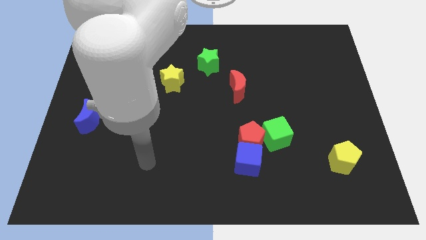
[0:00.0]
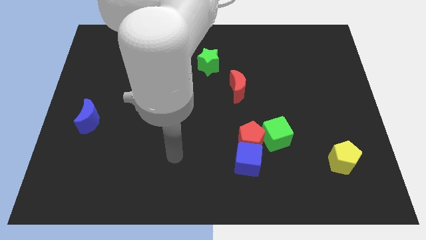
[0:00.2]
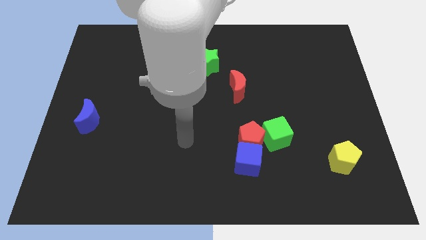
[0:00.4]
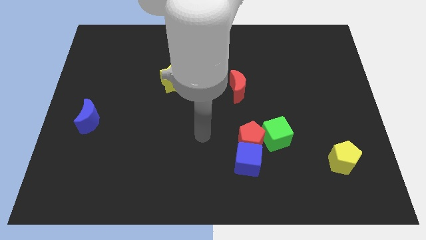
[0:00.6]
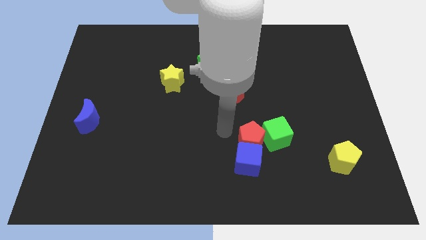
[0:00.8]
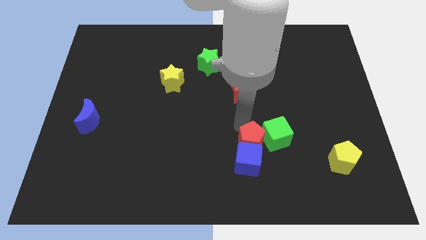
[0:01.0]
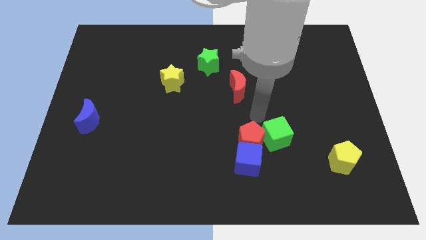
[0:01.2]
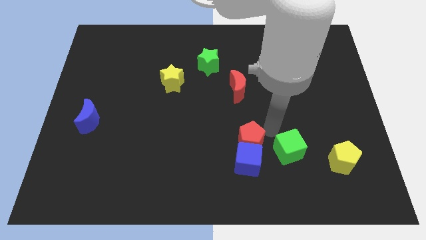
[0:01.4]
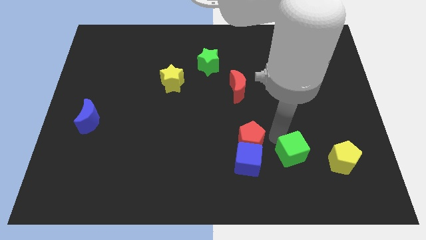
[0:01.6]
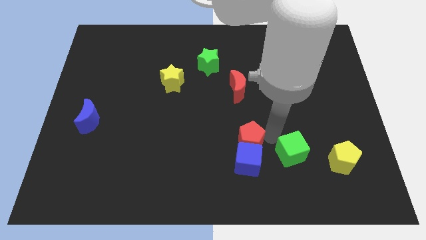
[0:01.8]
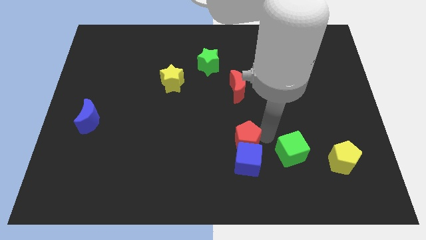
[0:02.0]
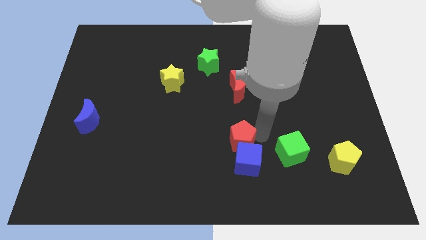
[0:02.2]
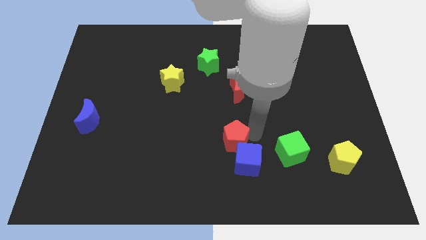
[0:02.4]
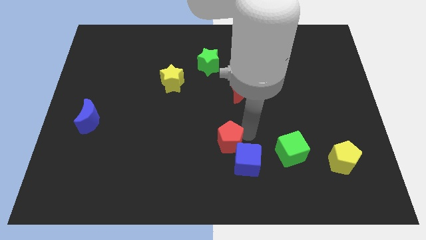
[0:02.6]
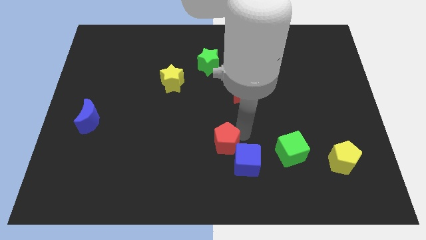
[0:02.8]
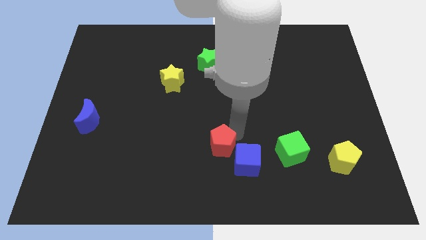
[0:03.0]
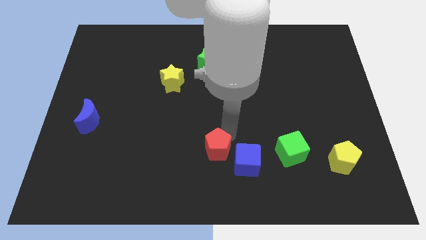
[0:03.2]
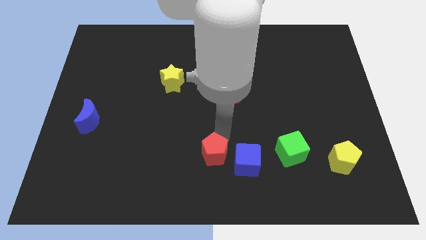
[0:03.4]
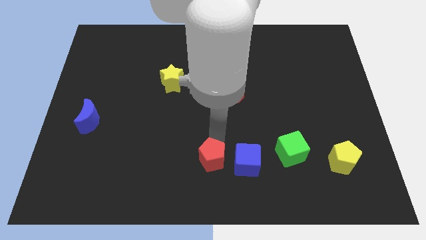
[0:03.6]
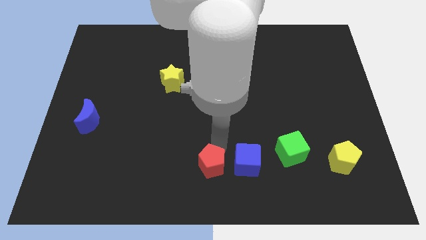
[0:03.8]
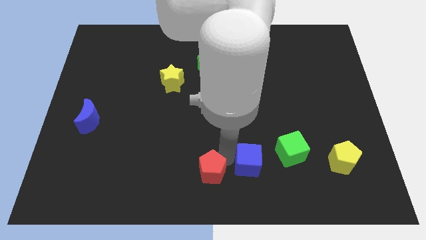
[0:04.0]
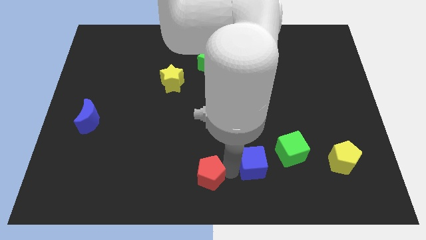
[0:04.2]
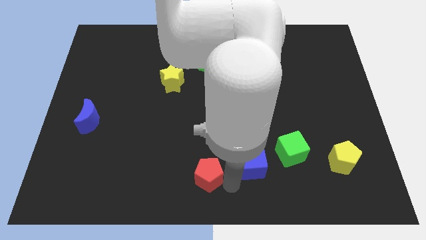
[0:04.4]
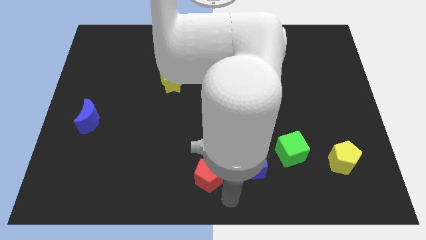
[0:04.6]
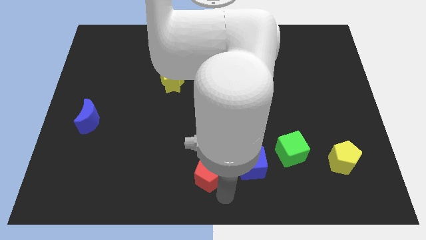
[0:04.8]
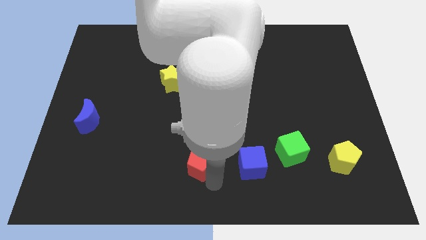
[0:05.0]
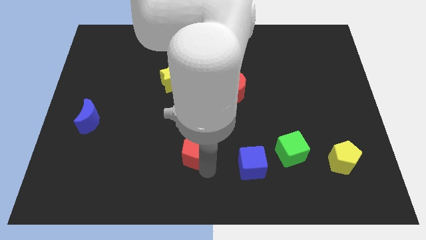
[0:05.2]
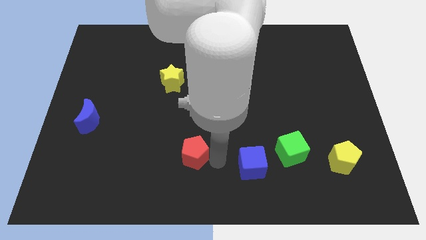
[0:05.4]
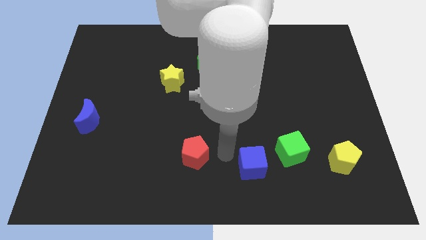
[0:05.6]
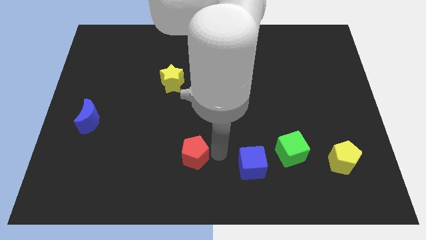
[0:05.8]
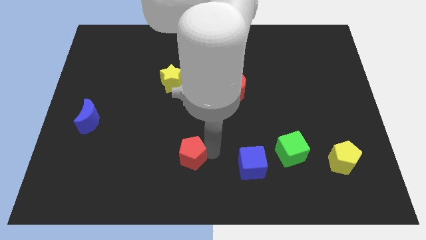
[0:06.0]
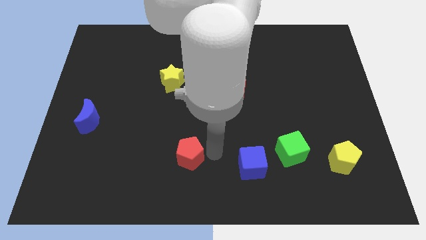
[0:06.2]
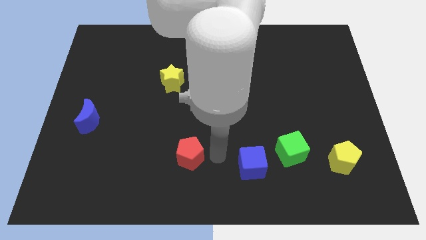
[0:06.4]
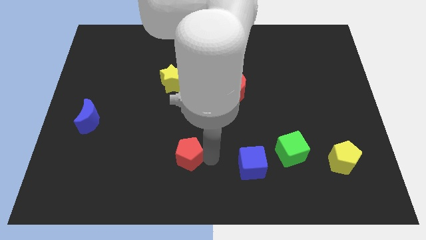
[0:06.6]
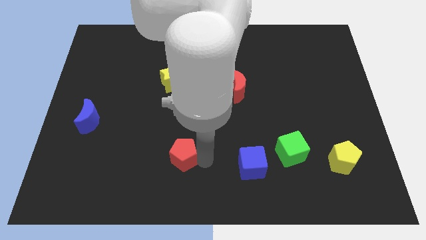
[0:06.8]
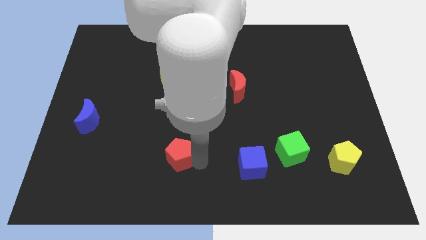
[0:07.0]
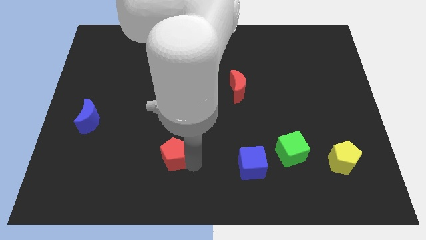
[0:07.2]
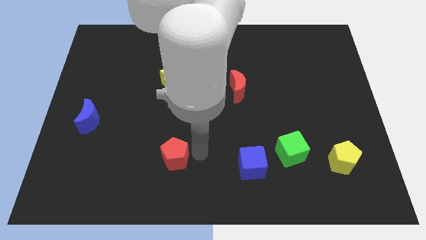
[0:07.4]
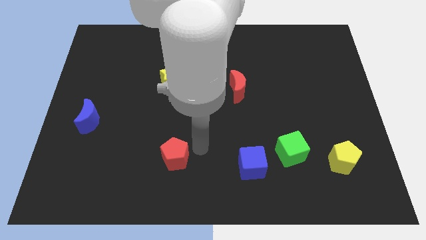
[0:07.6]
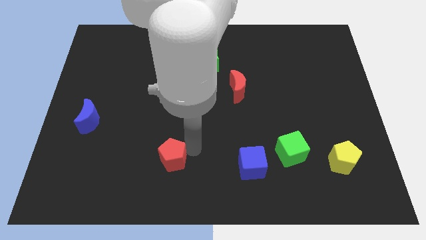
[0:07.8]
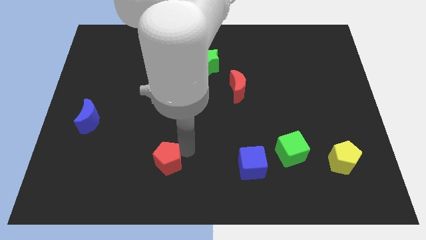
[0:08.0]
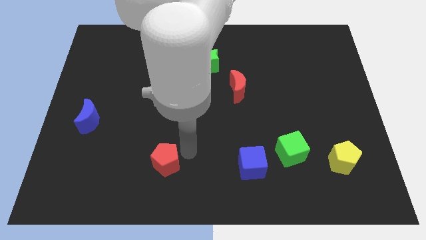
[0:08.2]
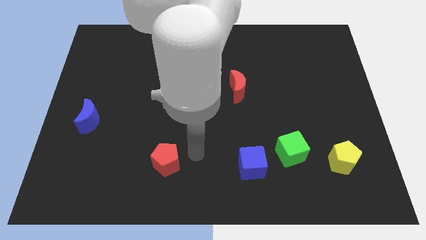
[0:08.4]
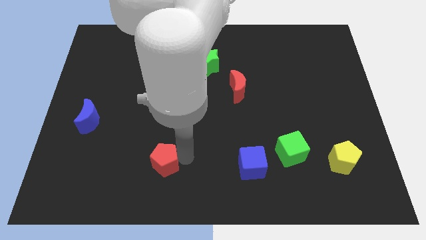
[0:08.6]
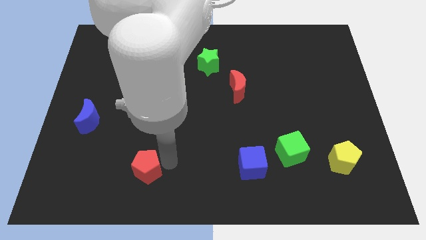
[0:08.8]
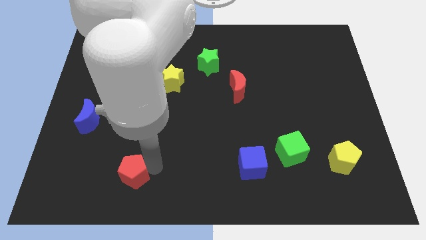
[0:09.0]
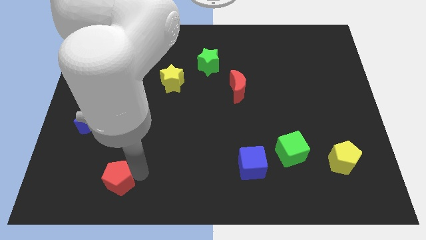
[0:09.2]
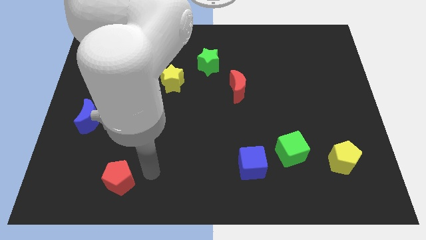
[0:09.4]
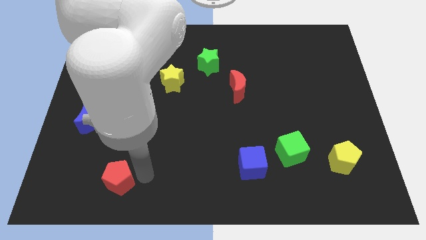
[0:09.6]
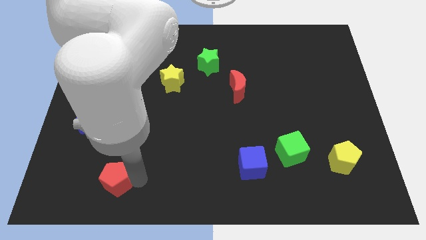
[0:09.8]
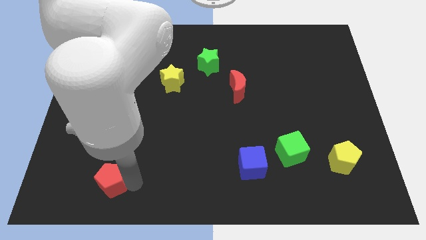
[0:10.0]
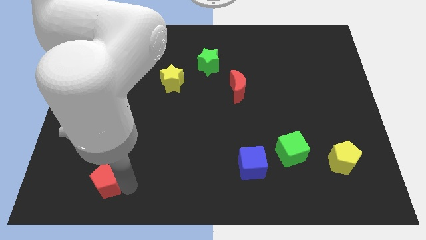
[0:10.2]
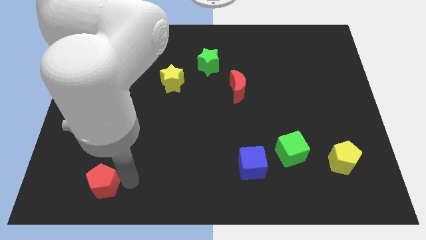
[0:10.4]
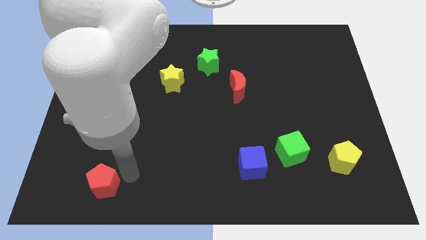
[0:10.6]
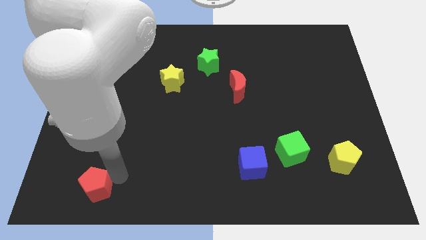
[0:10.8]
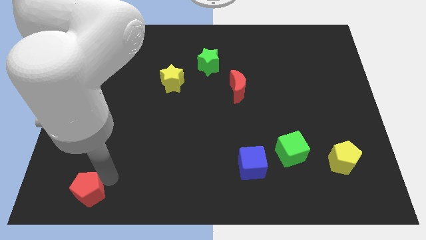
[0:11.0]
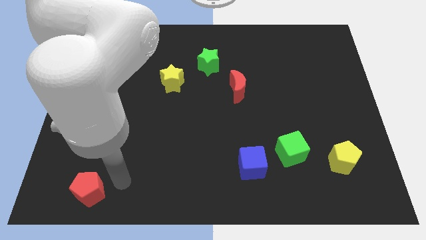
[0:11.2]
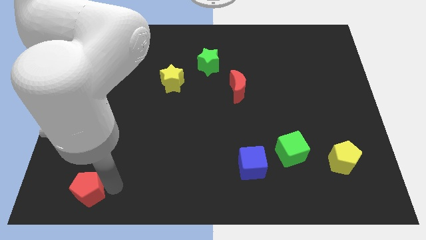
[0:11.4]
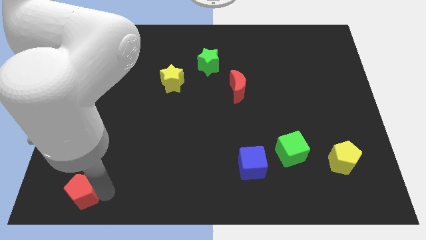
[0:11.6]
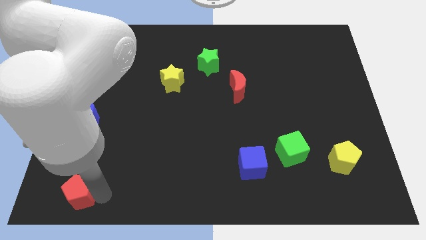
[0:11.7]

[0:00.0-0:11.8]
push the red pentagon to the bottom left
